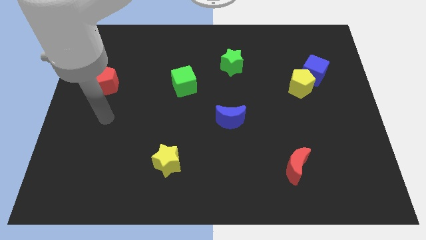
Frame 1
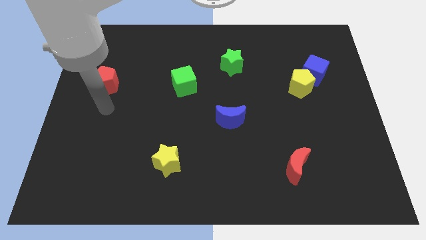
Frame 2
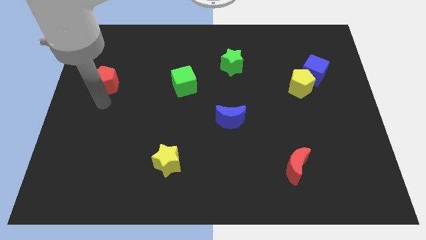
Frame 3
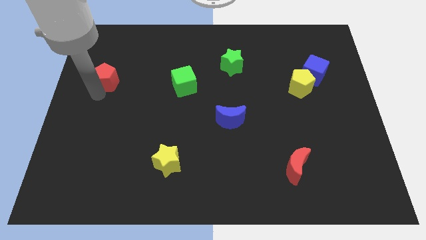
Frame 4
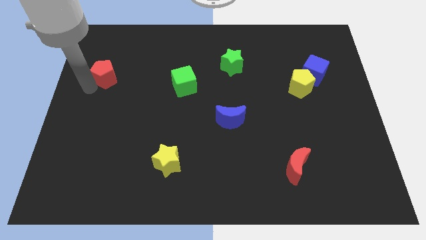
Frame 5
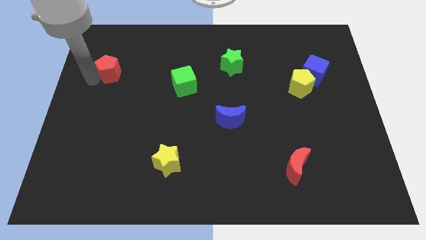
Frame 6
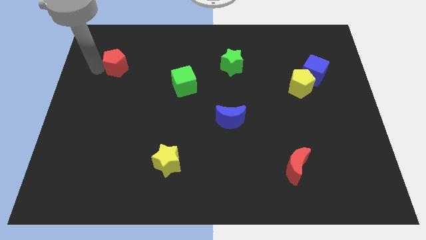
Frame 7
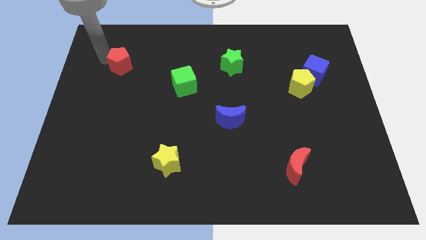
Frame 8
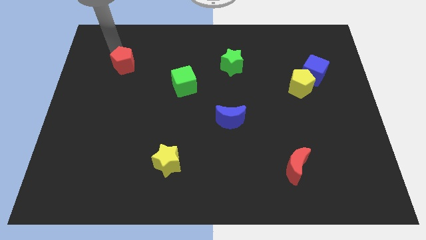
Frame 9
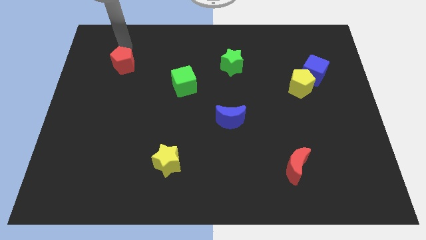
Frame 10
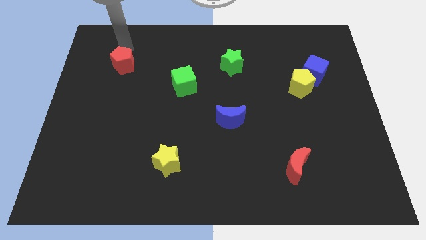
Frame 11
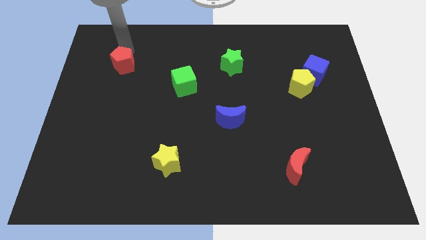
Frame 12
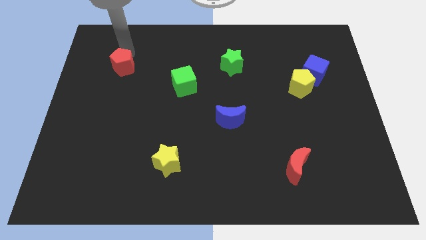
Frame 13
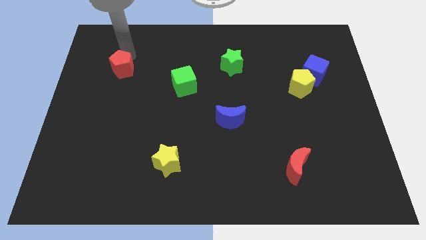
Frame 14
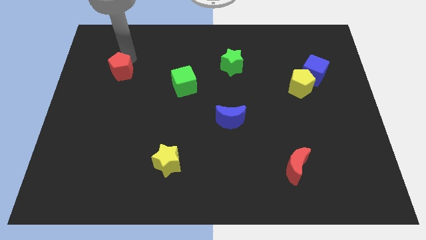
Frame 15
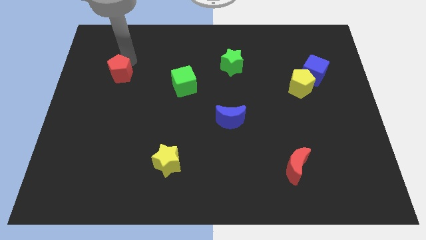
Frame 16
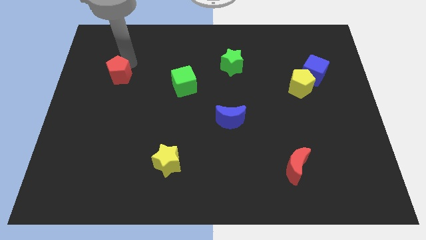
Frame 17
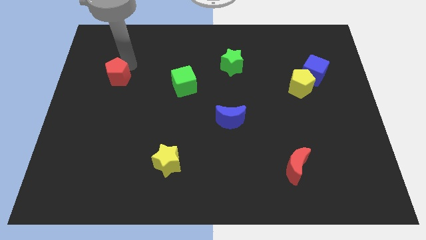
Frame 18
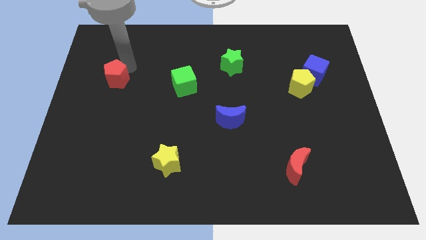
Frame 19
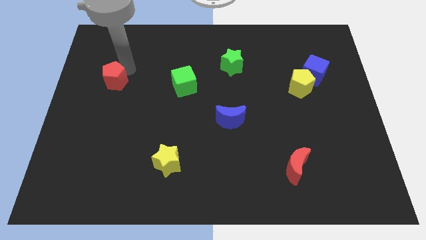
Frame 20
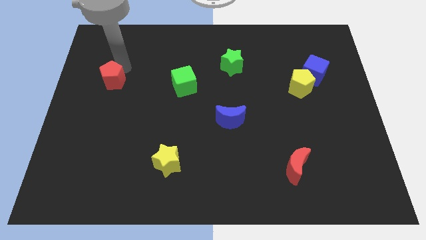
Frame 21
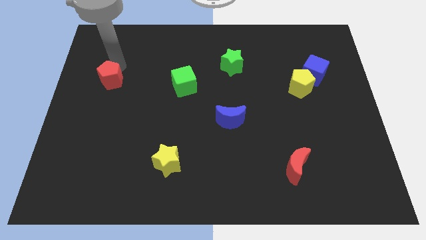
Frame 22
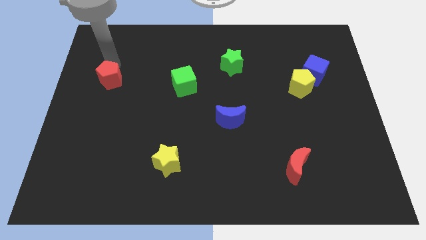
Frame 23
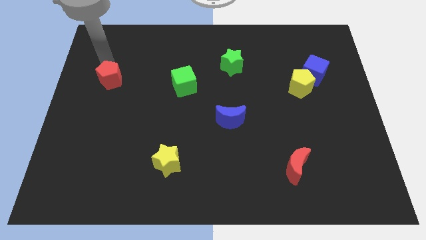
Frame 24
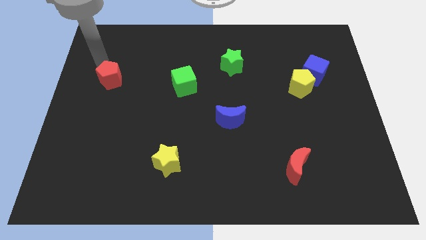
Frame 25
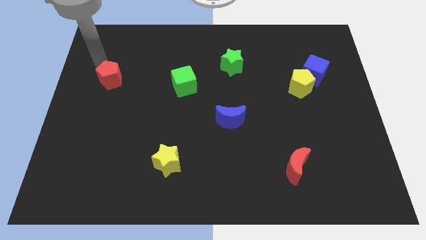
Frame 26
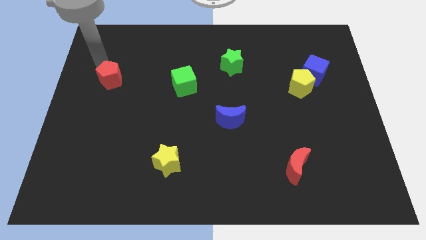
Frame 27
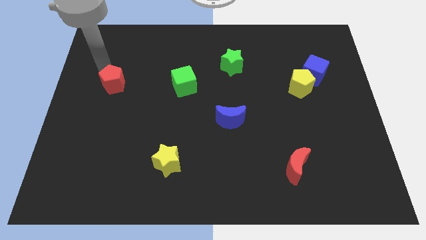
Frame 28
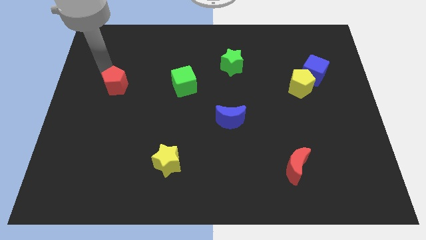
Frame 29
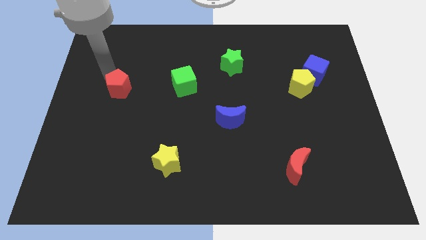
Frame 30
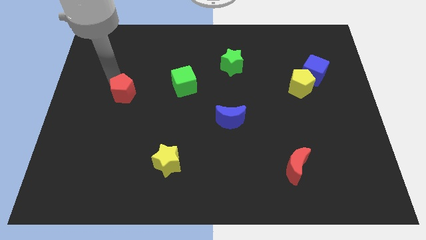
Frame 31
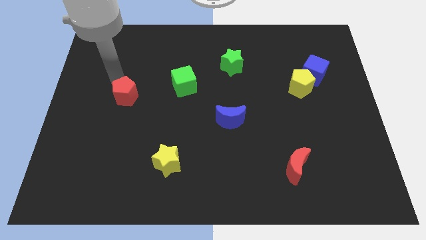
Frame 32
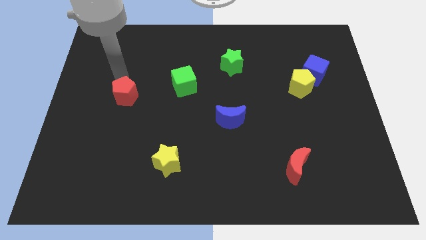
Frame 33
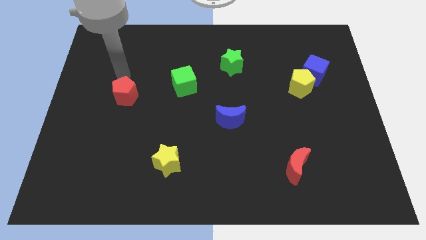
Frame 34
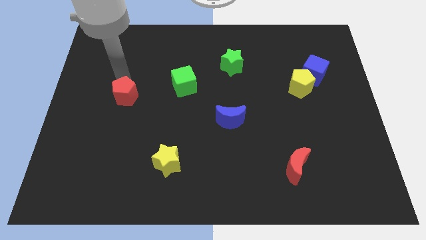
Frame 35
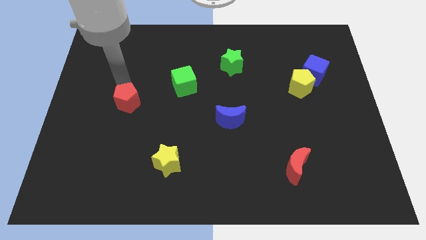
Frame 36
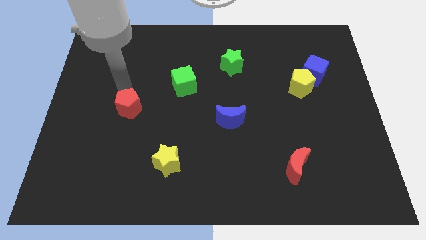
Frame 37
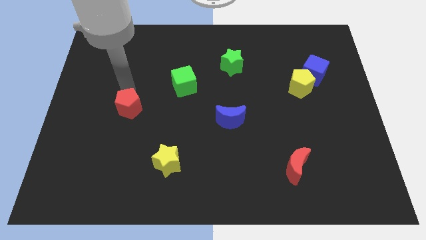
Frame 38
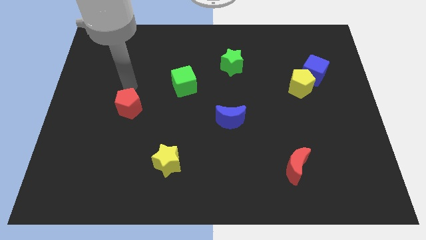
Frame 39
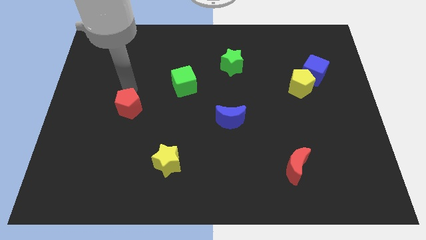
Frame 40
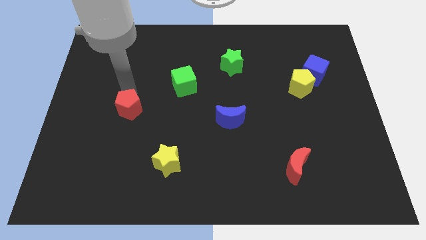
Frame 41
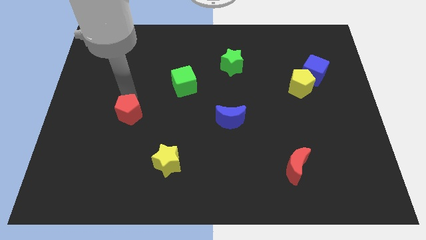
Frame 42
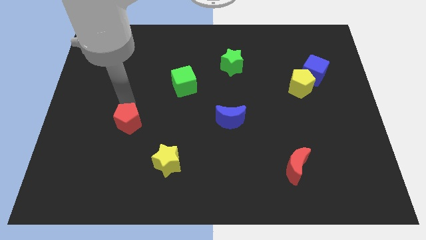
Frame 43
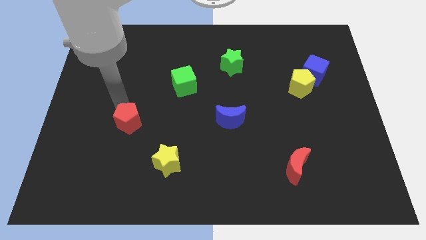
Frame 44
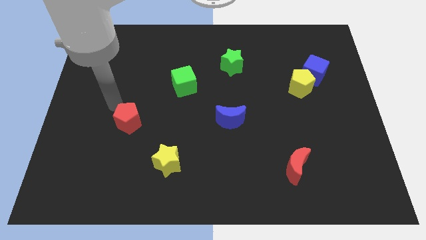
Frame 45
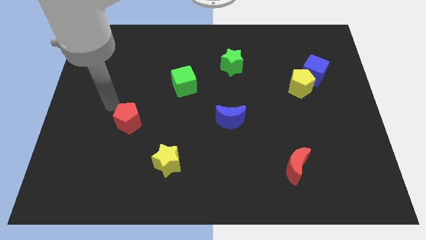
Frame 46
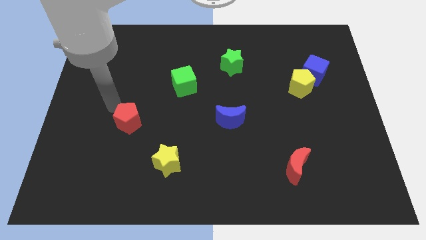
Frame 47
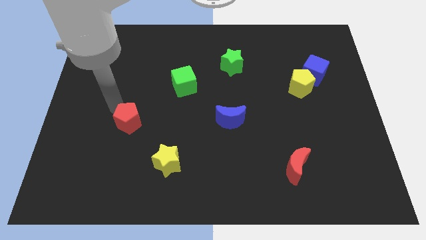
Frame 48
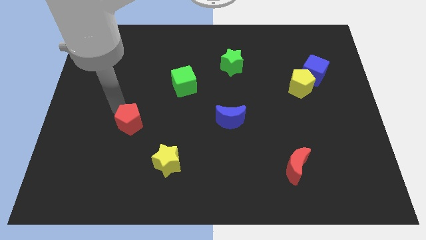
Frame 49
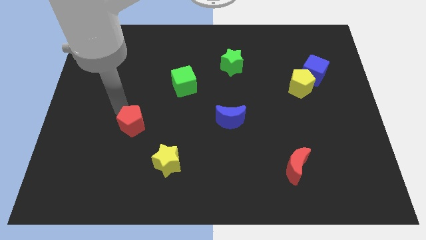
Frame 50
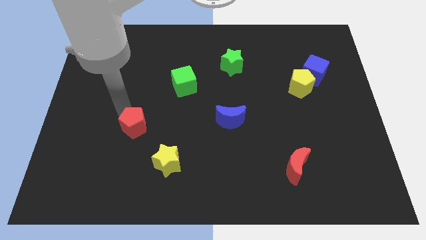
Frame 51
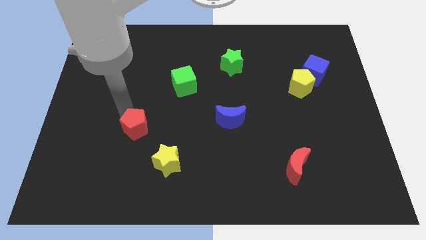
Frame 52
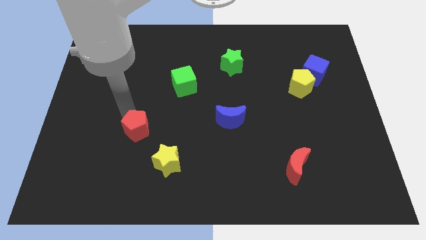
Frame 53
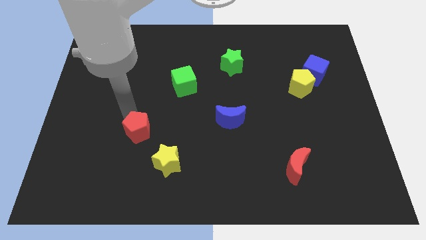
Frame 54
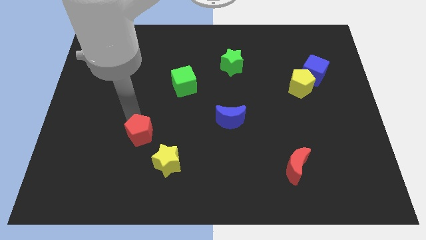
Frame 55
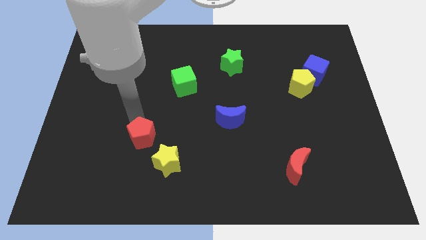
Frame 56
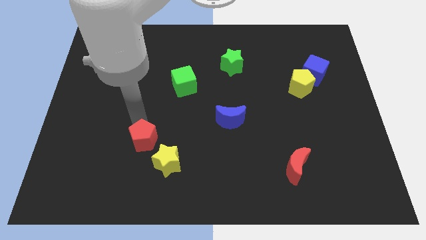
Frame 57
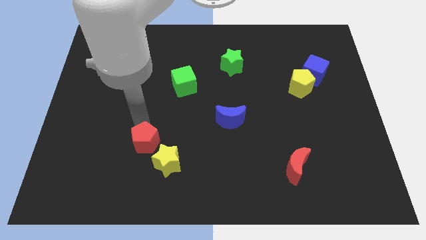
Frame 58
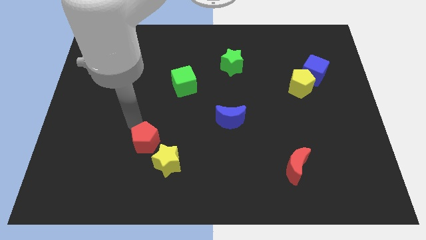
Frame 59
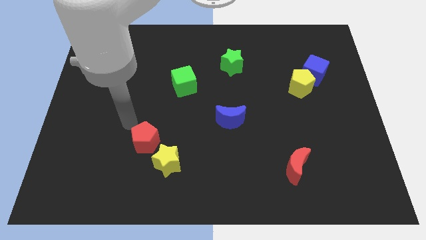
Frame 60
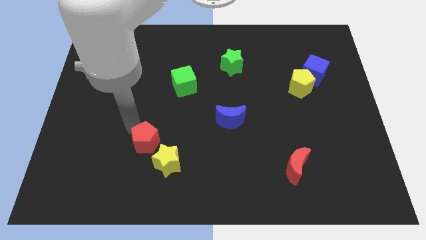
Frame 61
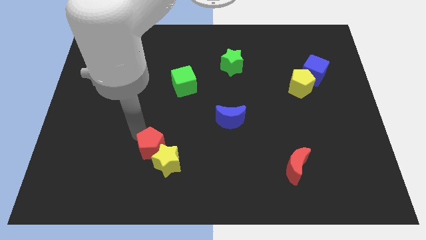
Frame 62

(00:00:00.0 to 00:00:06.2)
push the red pentagon to the yellow star
